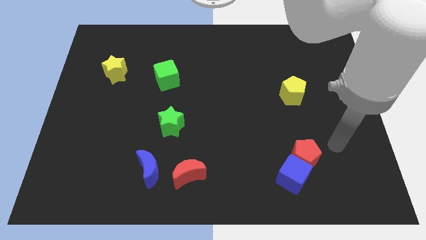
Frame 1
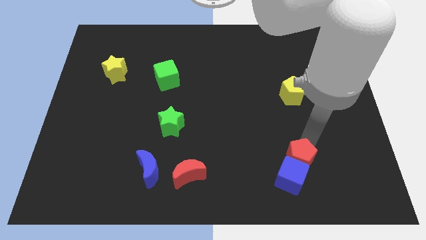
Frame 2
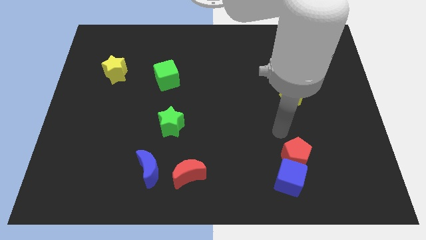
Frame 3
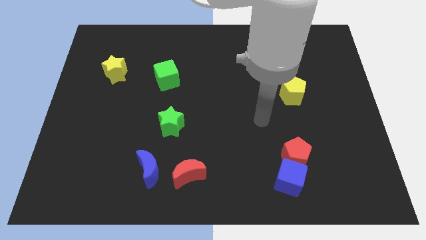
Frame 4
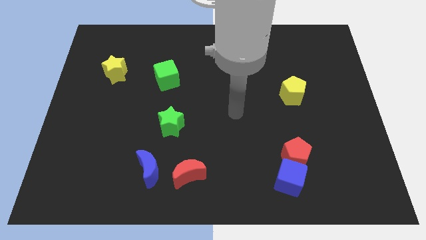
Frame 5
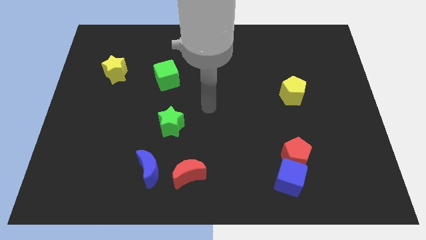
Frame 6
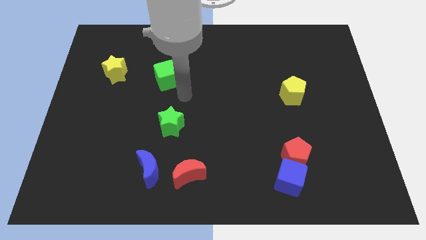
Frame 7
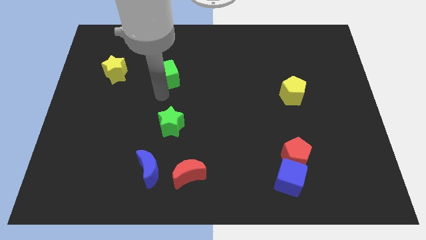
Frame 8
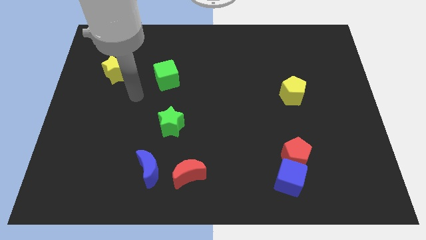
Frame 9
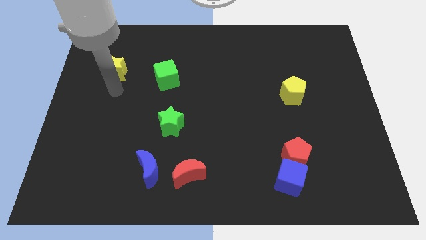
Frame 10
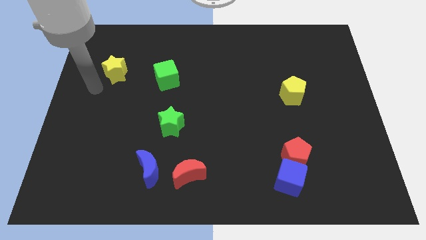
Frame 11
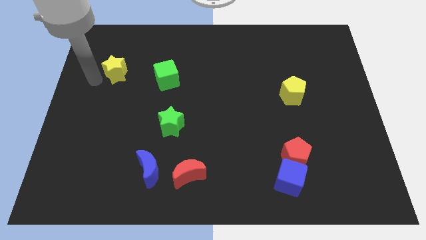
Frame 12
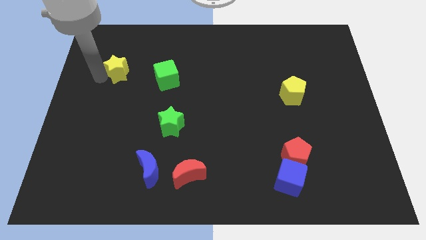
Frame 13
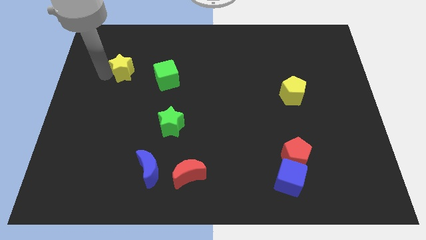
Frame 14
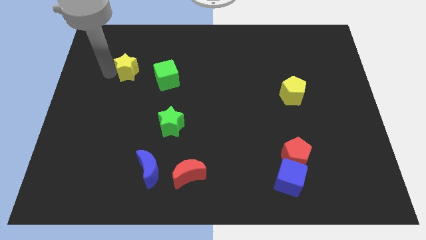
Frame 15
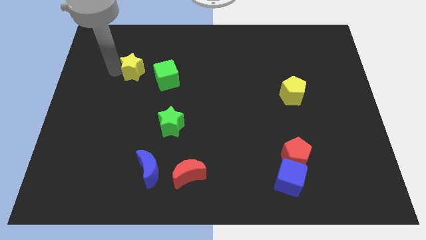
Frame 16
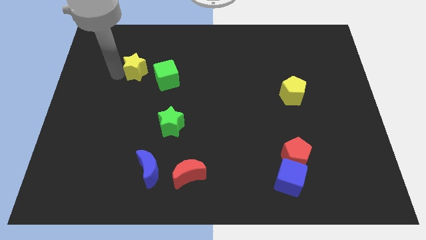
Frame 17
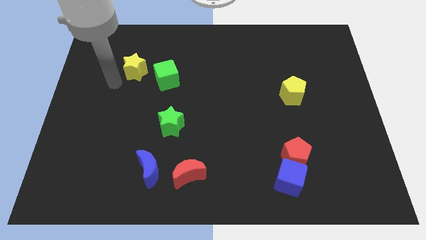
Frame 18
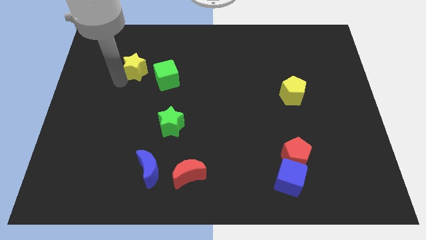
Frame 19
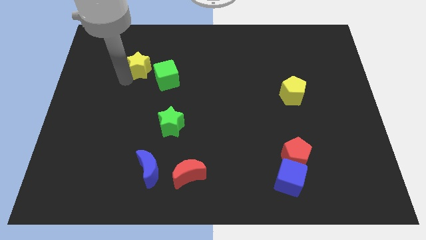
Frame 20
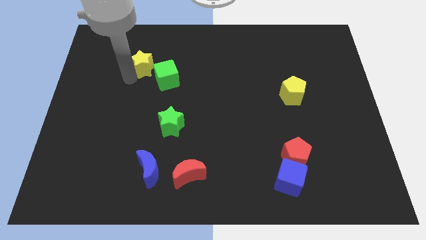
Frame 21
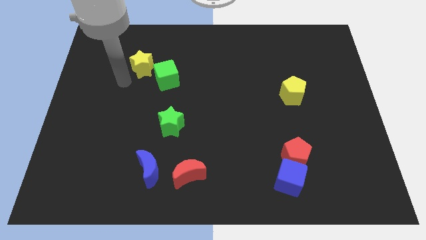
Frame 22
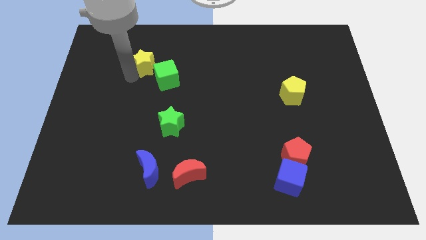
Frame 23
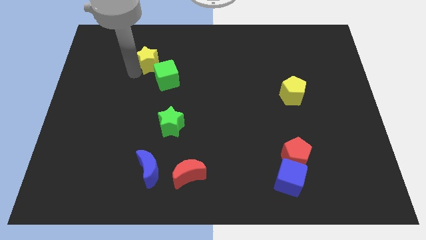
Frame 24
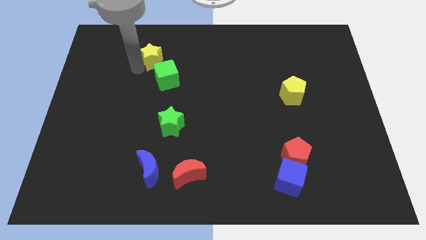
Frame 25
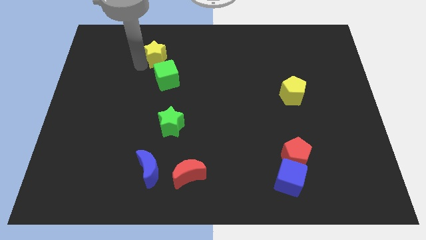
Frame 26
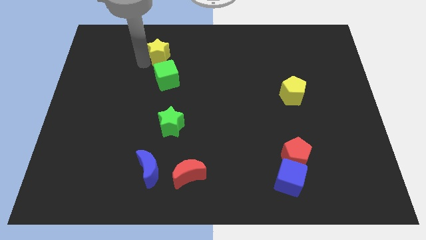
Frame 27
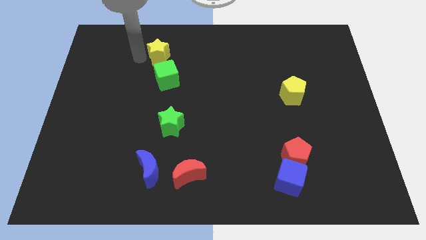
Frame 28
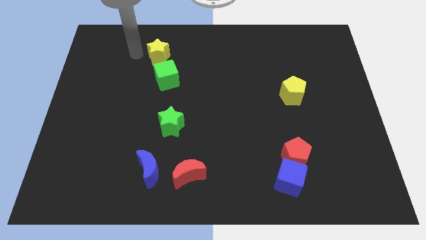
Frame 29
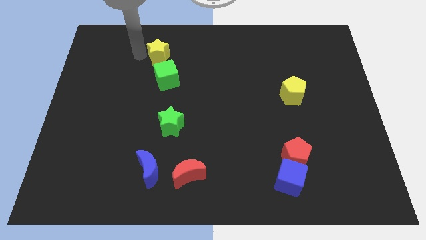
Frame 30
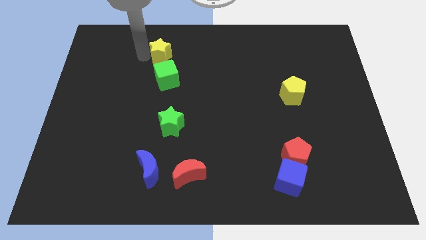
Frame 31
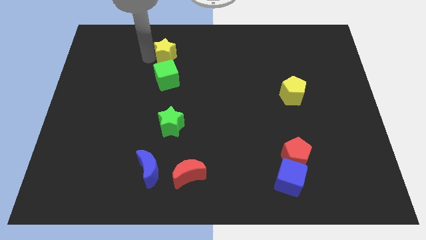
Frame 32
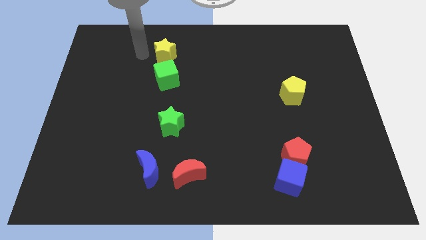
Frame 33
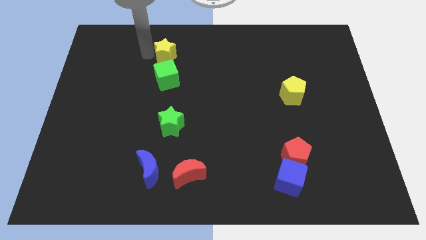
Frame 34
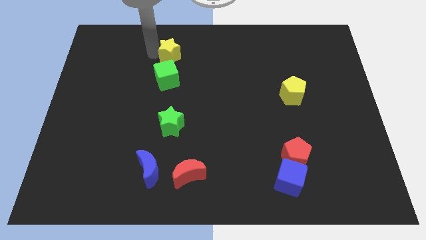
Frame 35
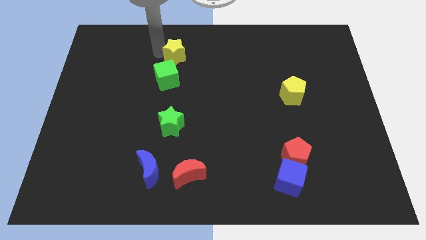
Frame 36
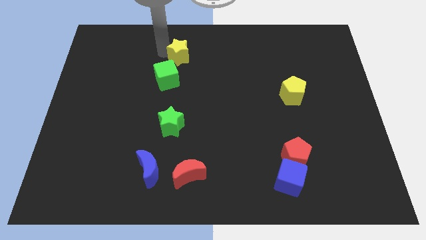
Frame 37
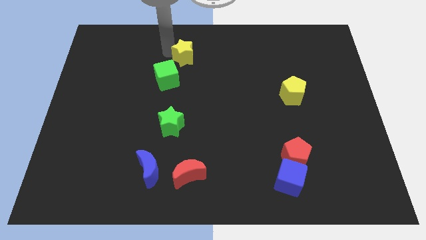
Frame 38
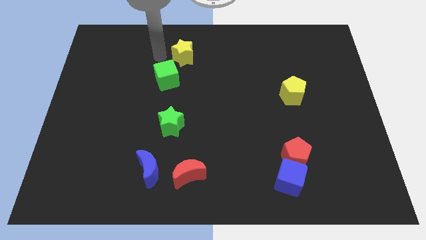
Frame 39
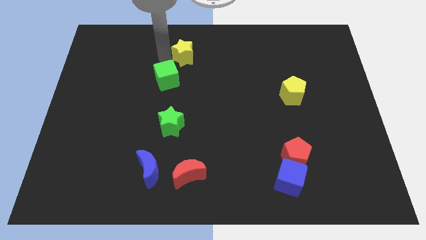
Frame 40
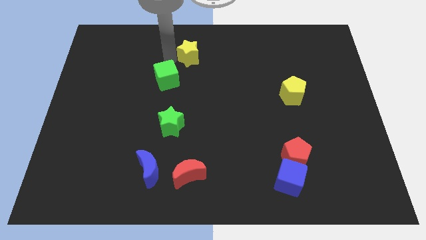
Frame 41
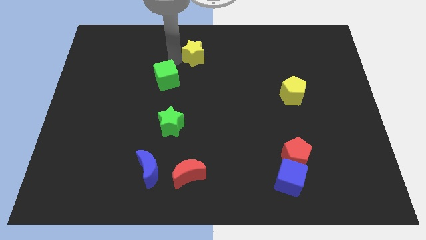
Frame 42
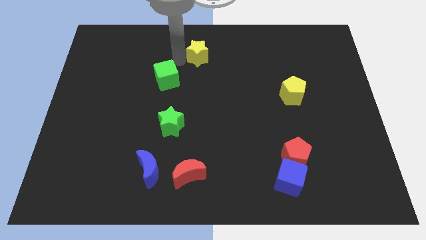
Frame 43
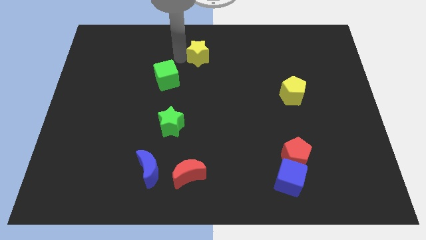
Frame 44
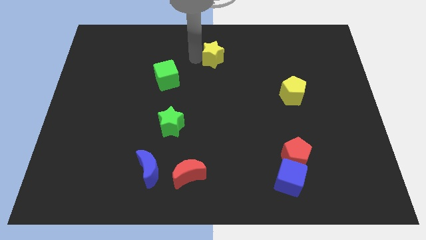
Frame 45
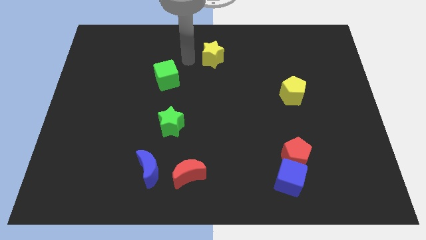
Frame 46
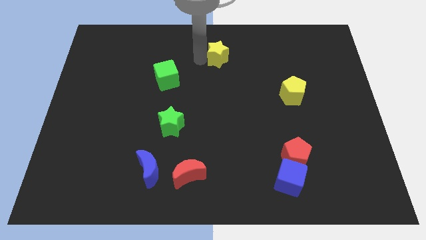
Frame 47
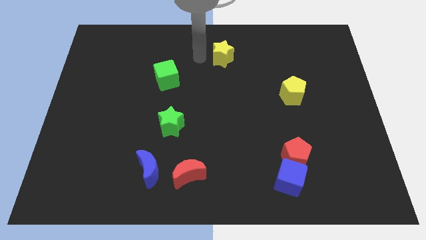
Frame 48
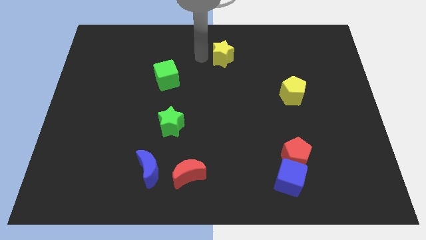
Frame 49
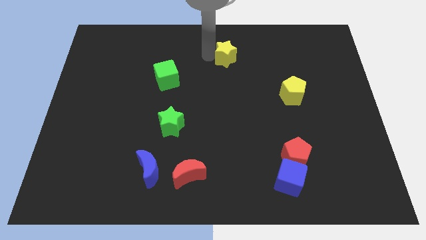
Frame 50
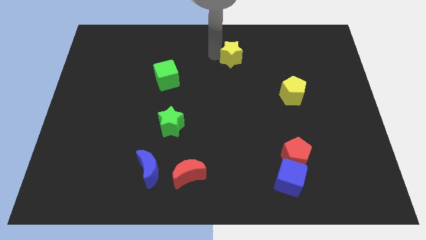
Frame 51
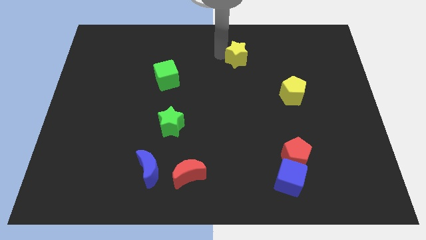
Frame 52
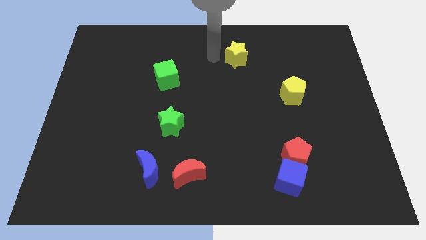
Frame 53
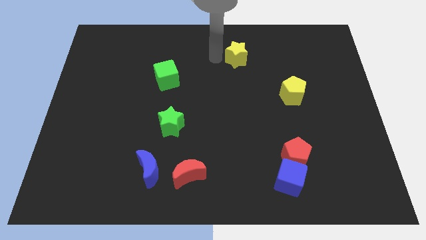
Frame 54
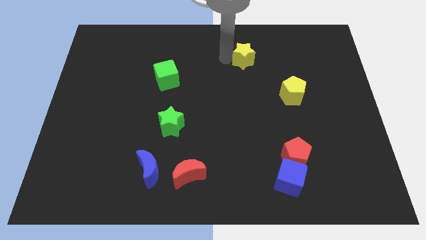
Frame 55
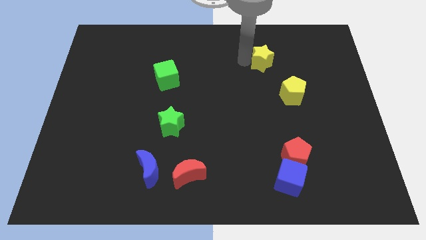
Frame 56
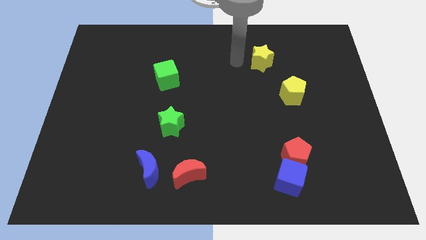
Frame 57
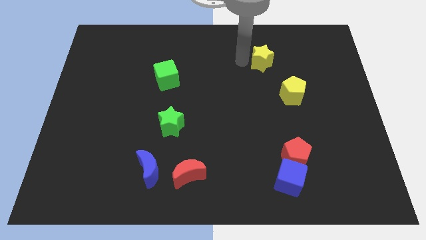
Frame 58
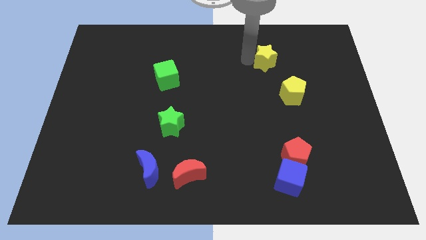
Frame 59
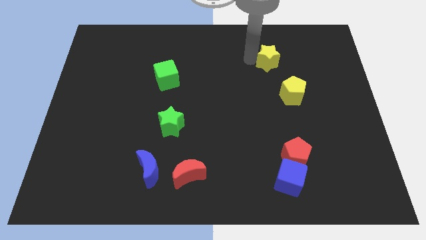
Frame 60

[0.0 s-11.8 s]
move the yellow star above the yellow pentagon

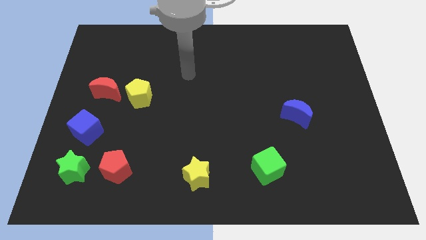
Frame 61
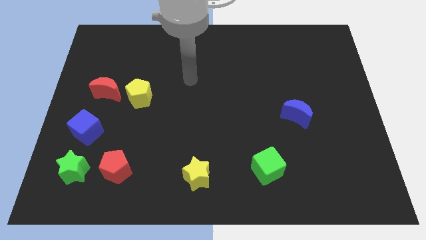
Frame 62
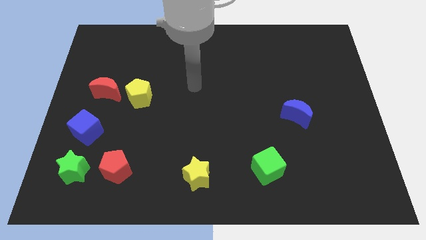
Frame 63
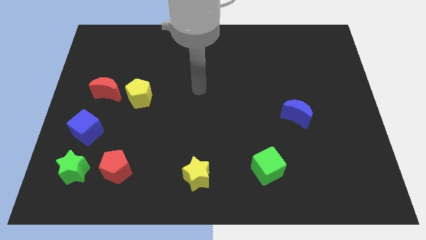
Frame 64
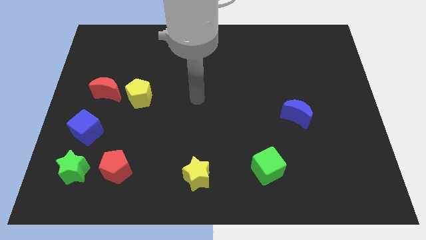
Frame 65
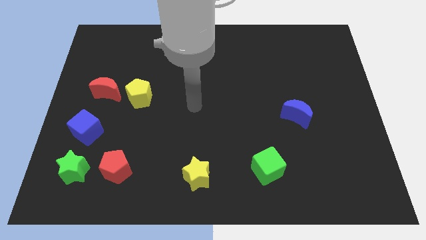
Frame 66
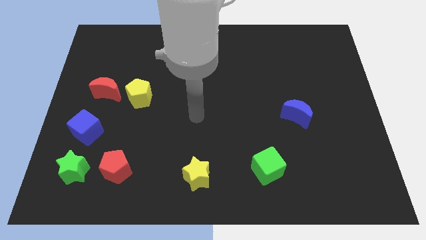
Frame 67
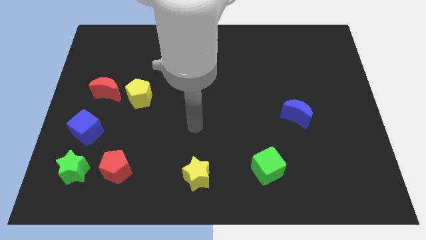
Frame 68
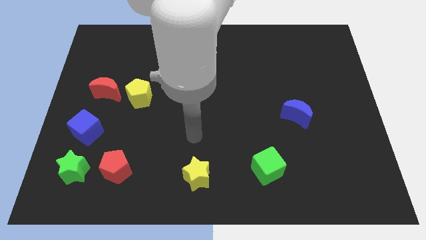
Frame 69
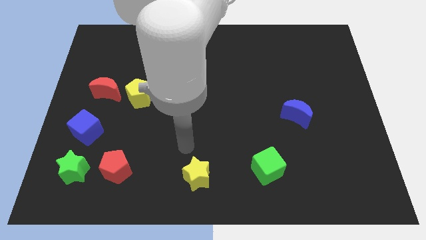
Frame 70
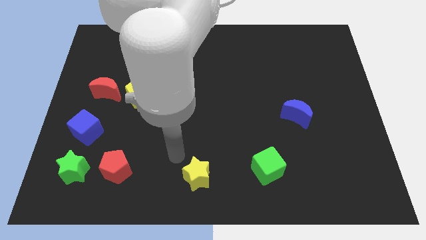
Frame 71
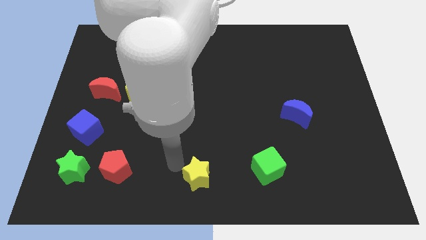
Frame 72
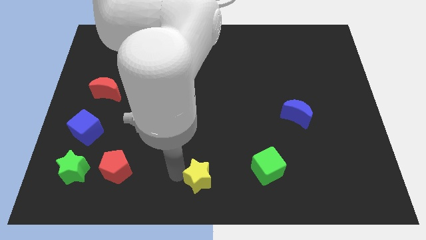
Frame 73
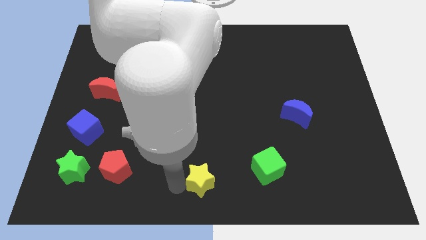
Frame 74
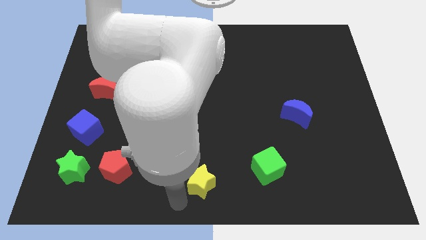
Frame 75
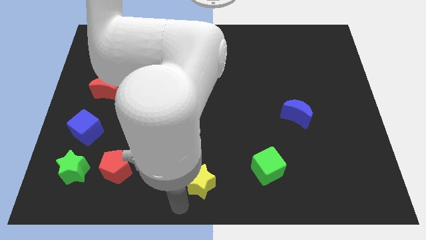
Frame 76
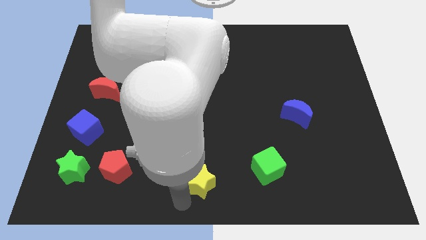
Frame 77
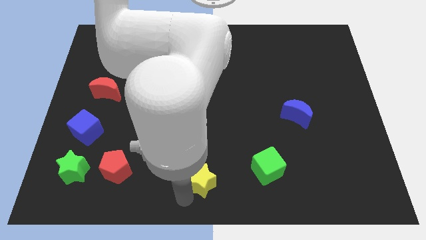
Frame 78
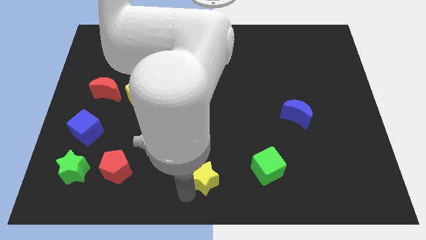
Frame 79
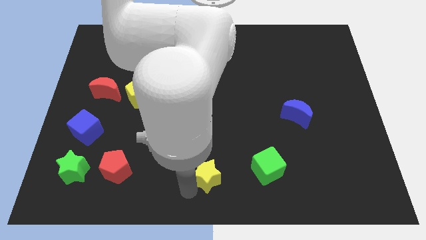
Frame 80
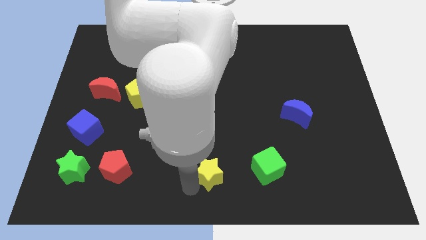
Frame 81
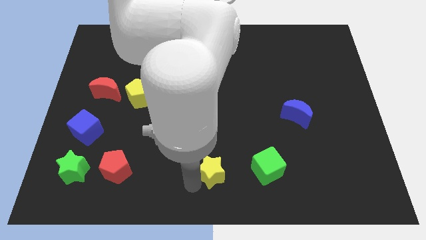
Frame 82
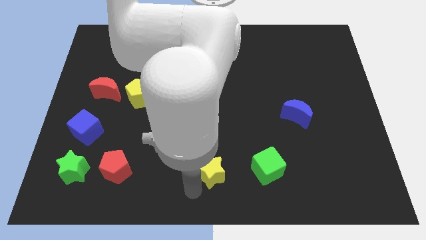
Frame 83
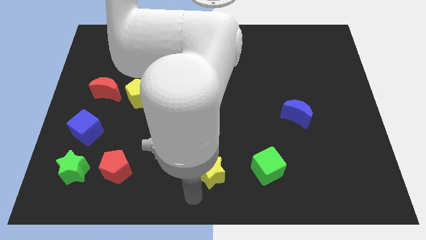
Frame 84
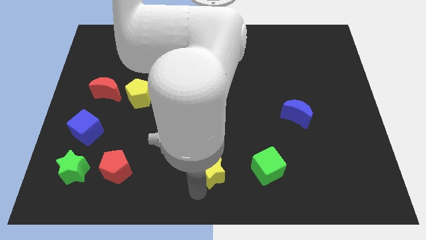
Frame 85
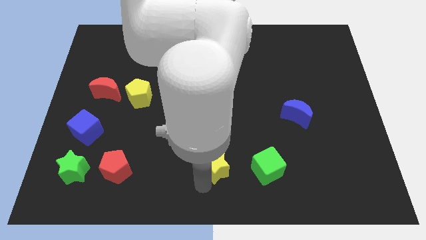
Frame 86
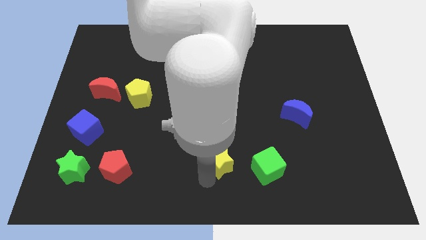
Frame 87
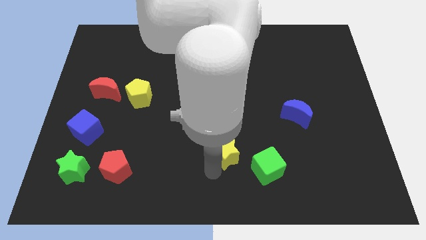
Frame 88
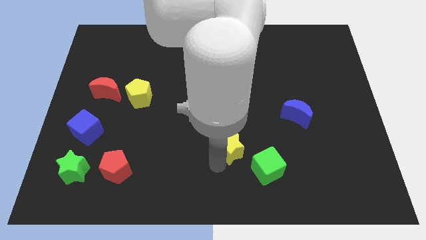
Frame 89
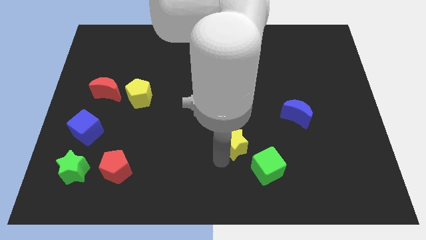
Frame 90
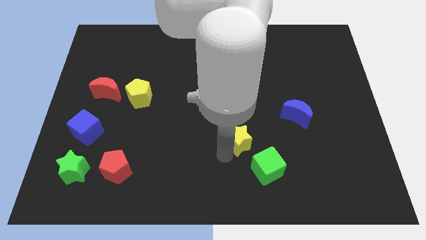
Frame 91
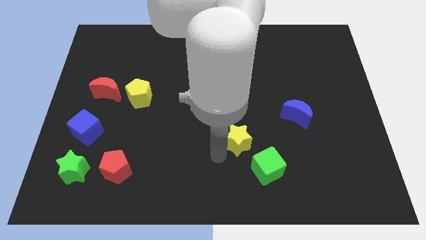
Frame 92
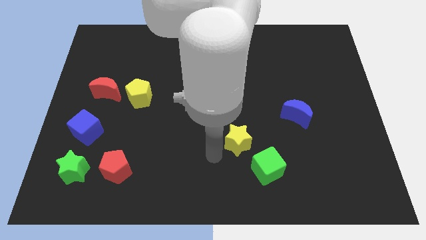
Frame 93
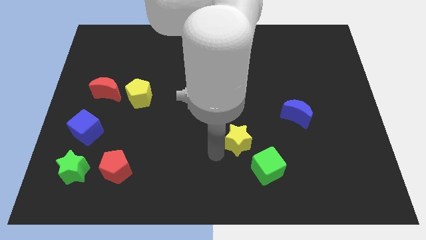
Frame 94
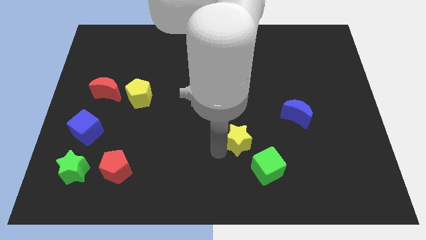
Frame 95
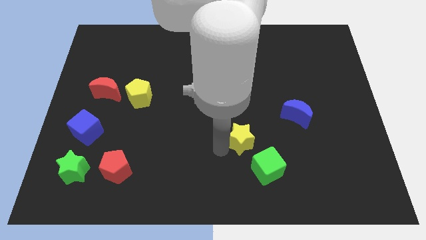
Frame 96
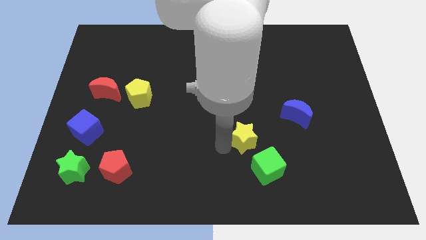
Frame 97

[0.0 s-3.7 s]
push the yellow star to the top side of the green cube
